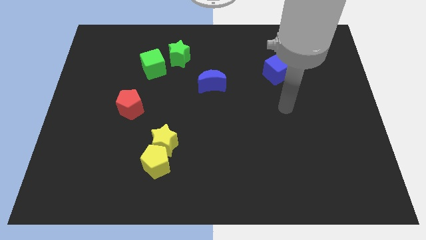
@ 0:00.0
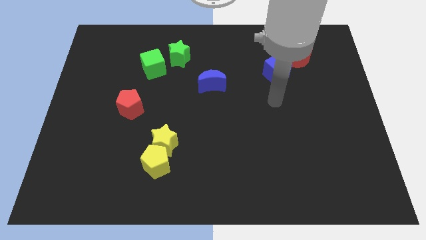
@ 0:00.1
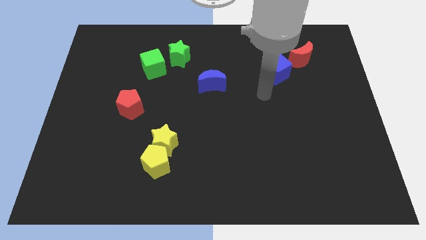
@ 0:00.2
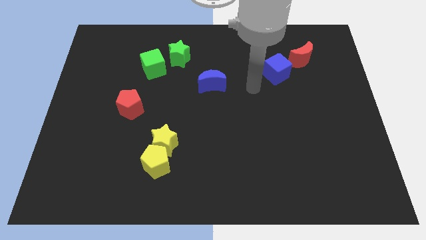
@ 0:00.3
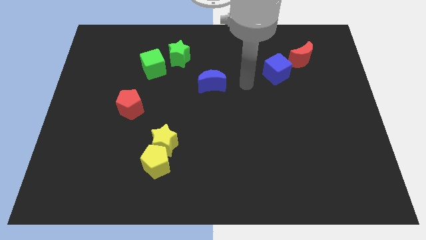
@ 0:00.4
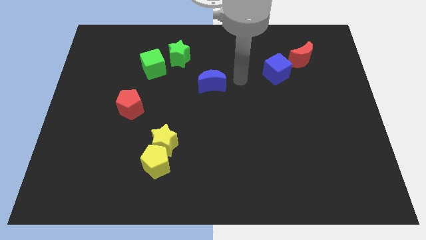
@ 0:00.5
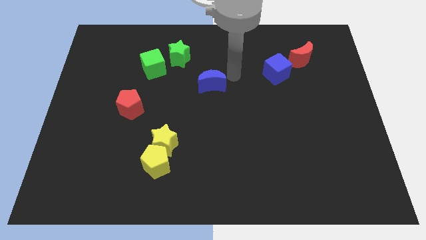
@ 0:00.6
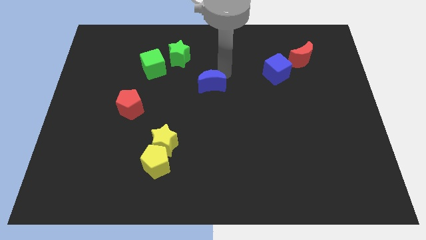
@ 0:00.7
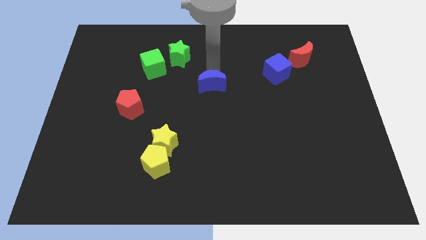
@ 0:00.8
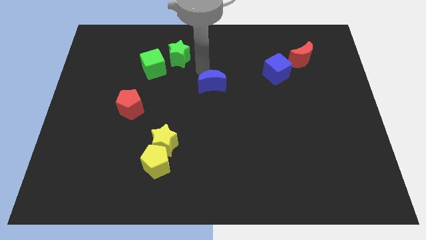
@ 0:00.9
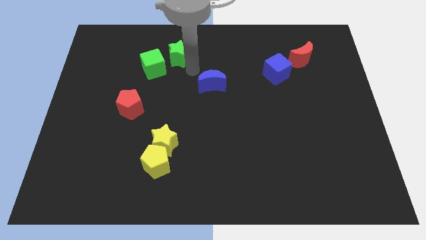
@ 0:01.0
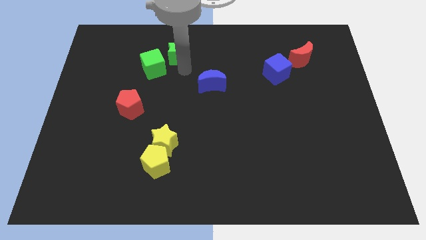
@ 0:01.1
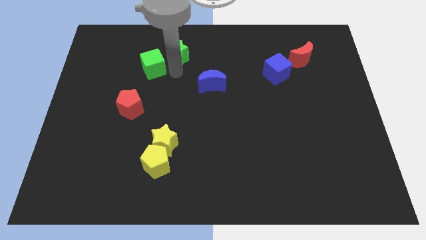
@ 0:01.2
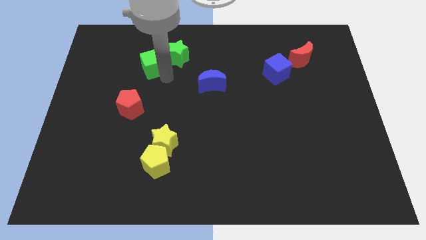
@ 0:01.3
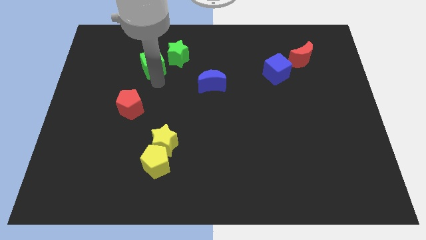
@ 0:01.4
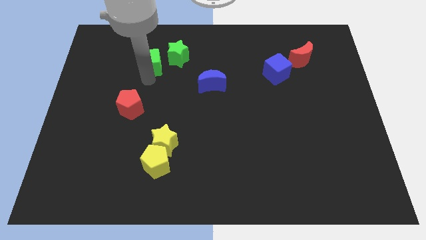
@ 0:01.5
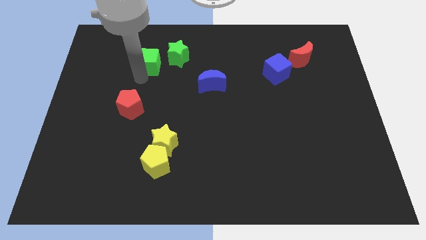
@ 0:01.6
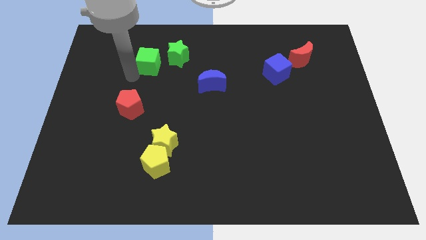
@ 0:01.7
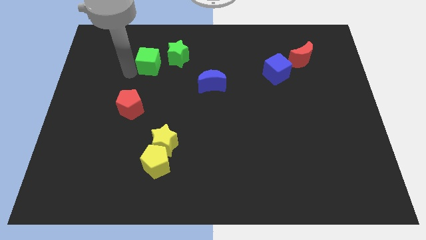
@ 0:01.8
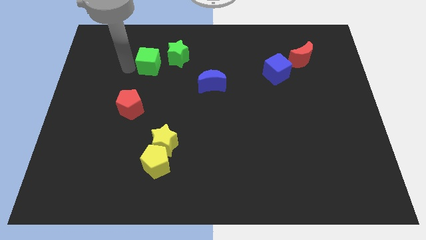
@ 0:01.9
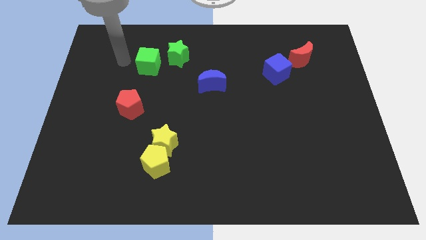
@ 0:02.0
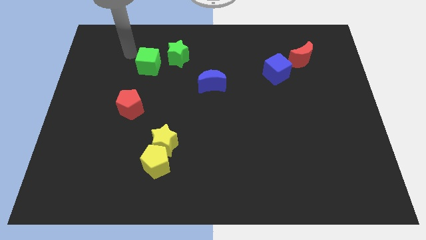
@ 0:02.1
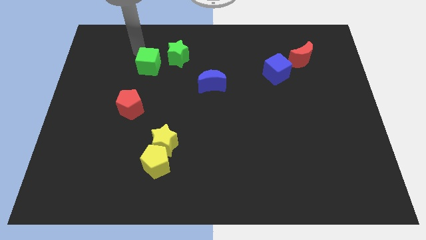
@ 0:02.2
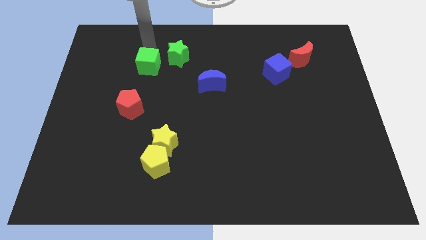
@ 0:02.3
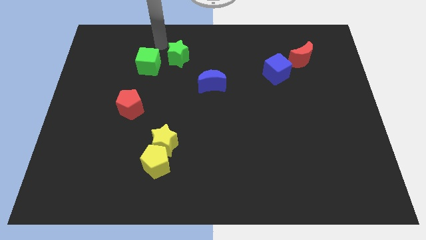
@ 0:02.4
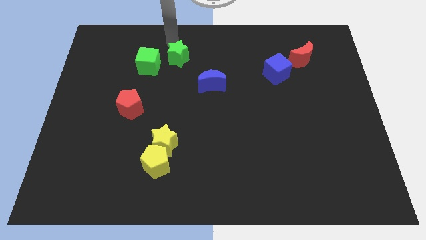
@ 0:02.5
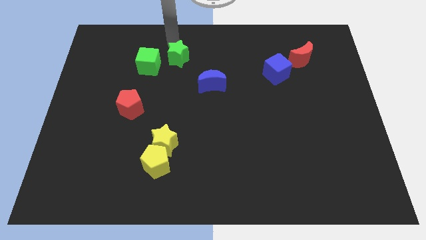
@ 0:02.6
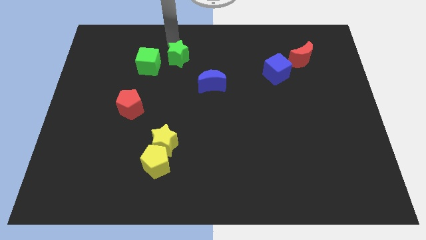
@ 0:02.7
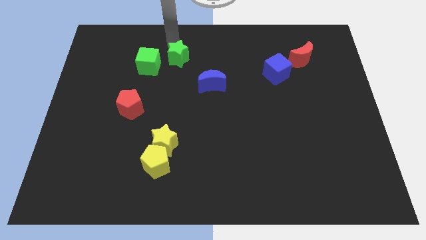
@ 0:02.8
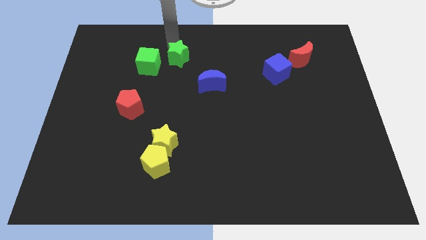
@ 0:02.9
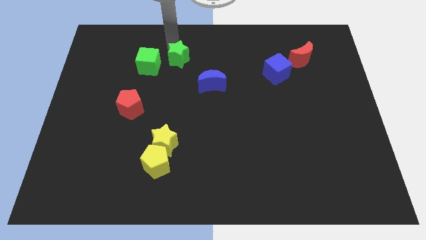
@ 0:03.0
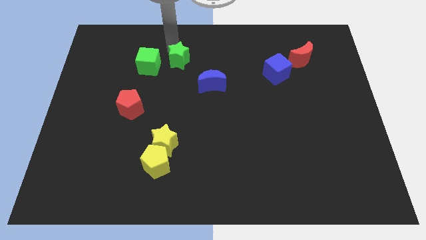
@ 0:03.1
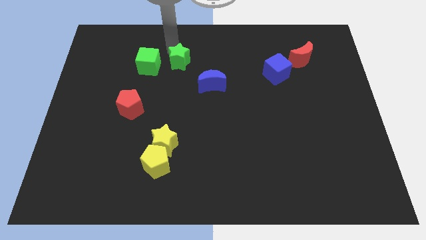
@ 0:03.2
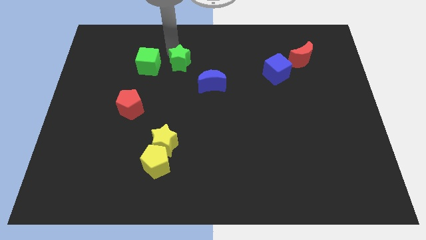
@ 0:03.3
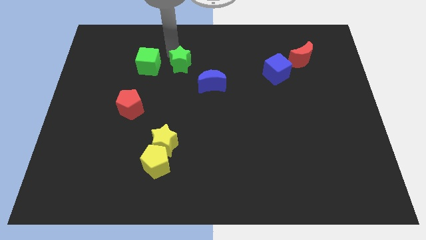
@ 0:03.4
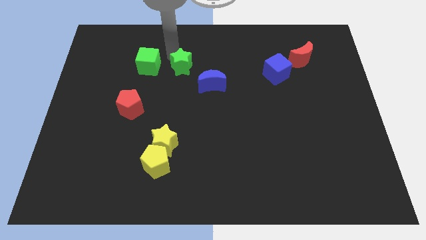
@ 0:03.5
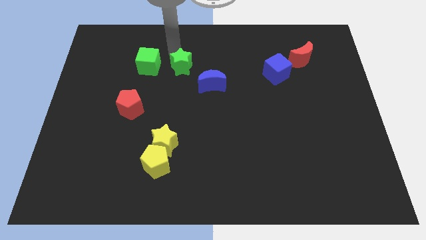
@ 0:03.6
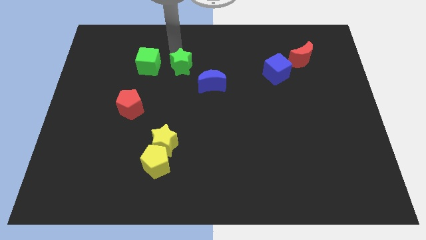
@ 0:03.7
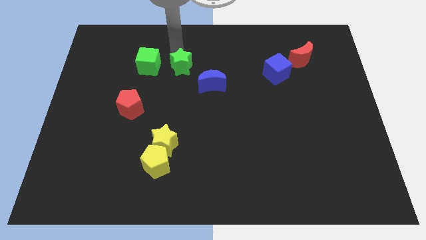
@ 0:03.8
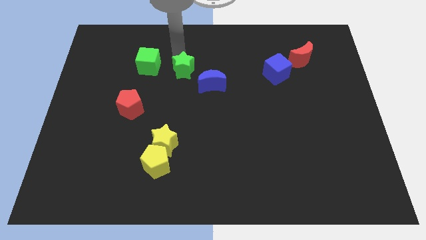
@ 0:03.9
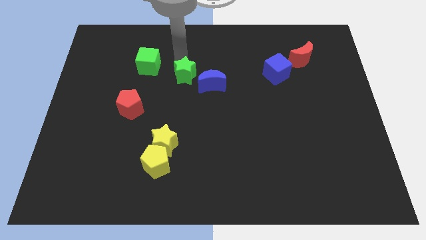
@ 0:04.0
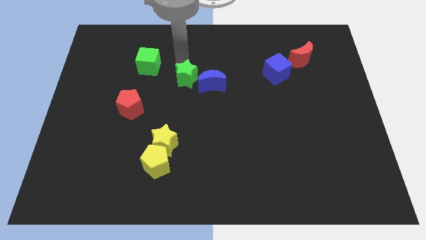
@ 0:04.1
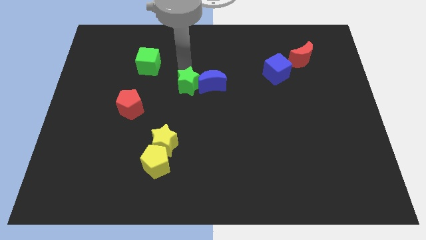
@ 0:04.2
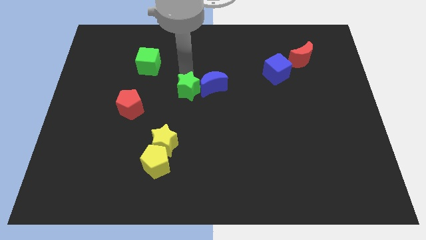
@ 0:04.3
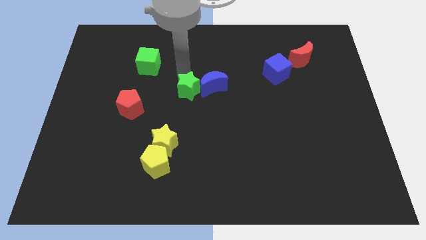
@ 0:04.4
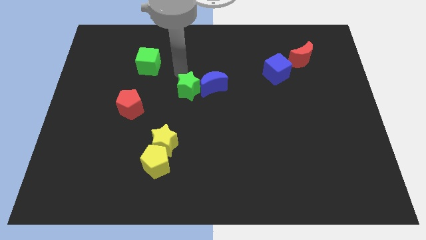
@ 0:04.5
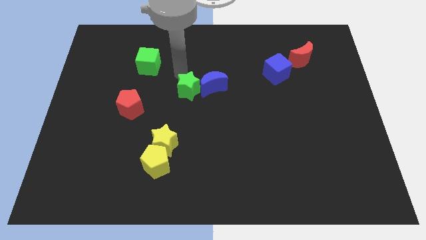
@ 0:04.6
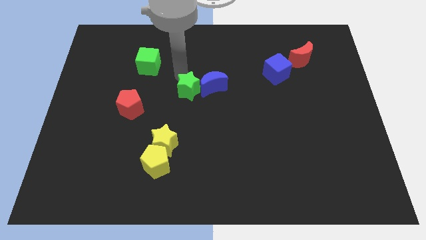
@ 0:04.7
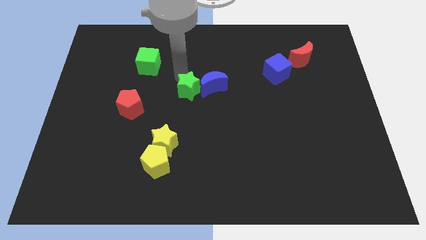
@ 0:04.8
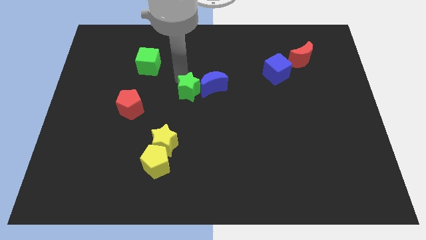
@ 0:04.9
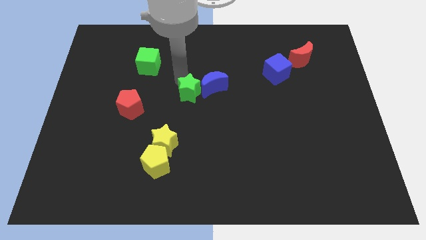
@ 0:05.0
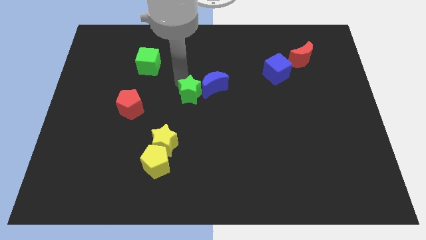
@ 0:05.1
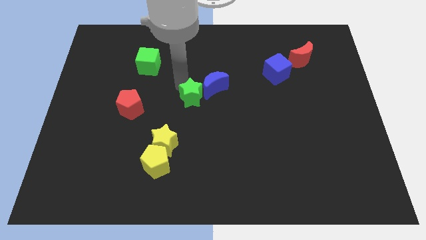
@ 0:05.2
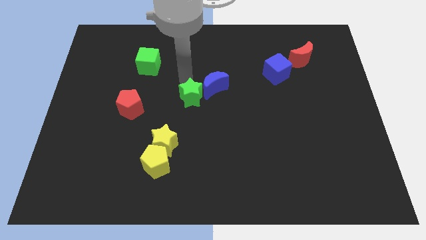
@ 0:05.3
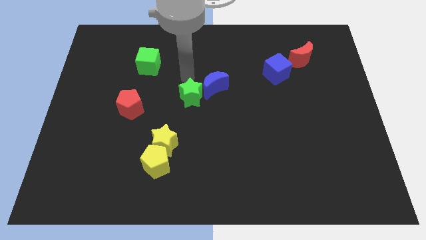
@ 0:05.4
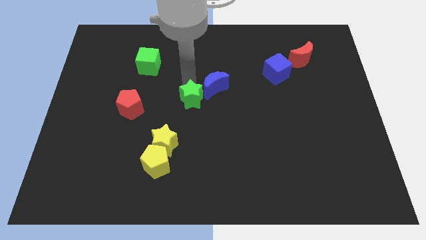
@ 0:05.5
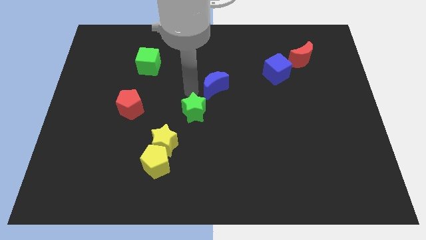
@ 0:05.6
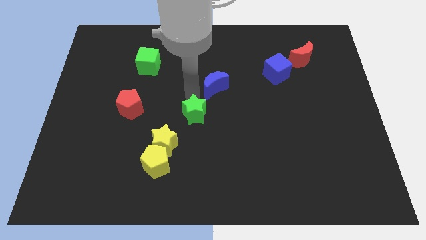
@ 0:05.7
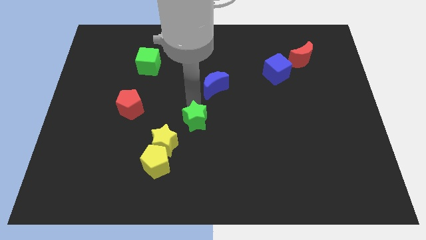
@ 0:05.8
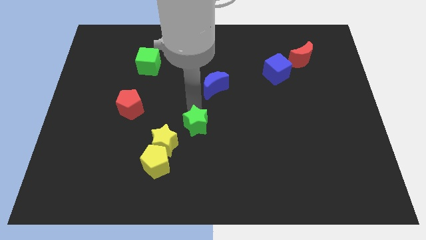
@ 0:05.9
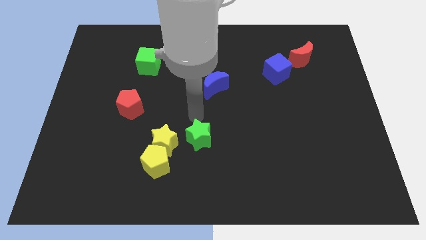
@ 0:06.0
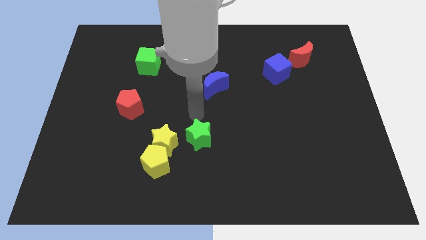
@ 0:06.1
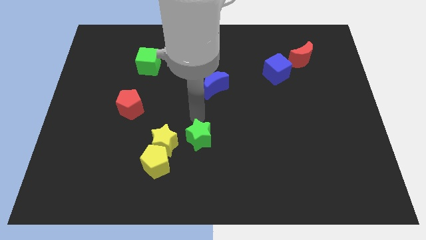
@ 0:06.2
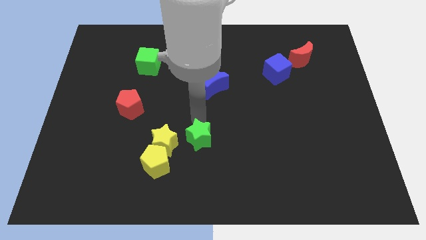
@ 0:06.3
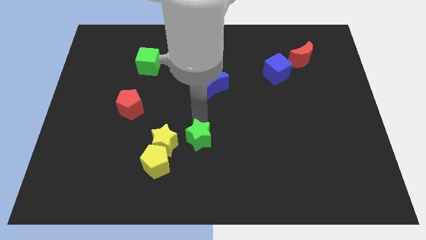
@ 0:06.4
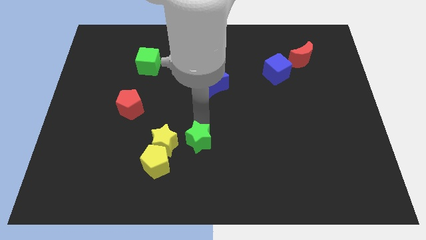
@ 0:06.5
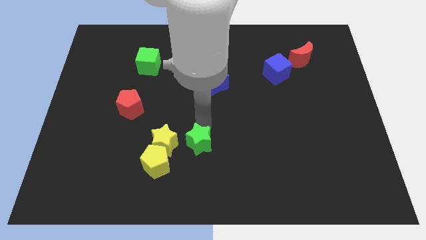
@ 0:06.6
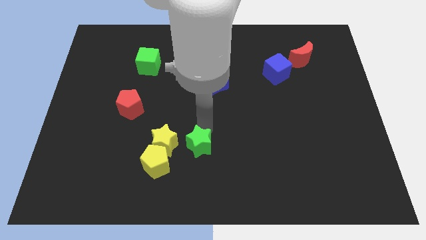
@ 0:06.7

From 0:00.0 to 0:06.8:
slide the green star right of the yellow pentagon
